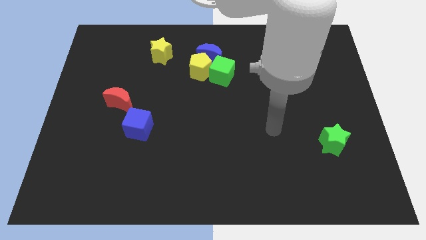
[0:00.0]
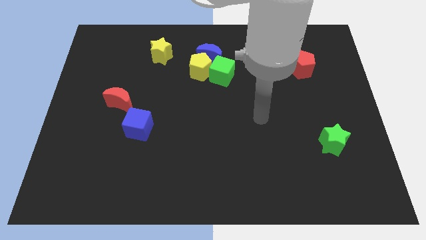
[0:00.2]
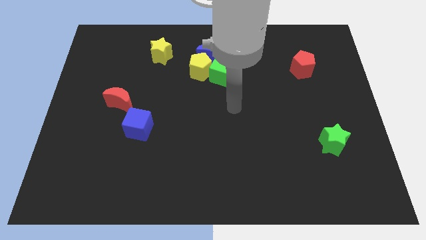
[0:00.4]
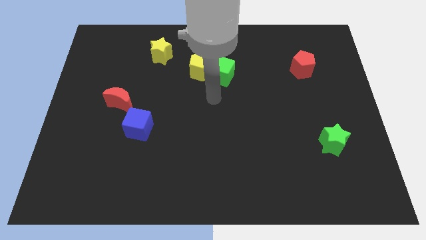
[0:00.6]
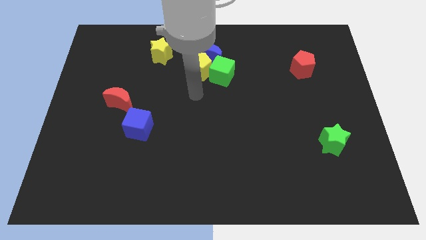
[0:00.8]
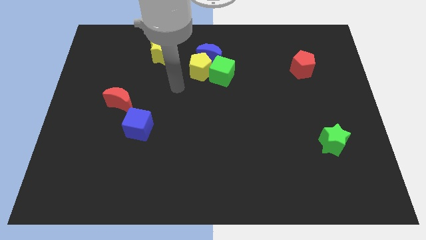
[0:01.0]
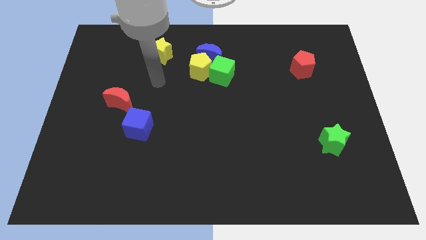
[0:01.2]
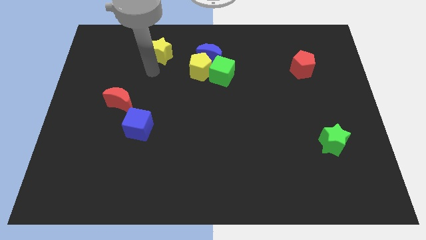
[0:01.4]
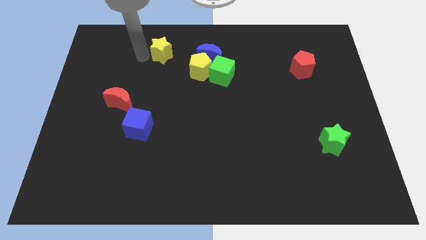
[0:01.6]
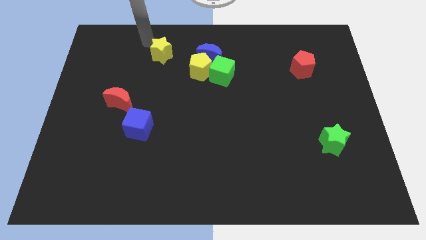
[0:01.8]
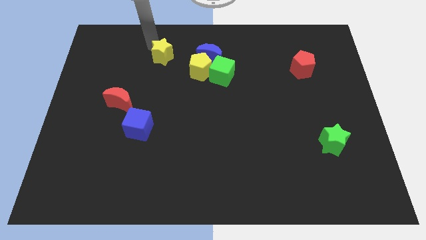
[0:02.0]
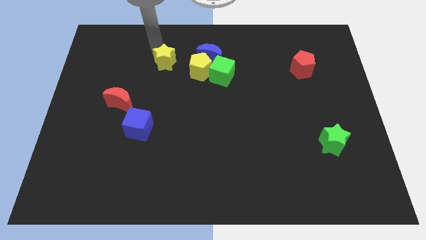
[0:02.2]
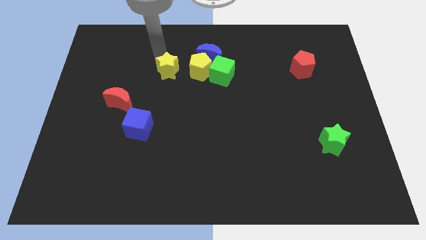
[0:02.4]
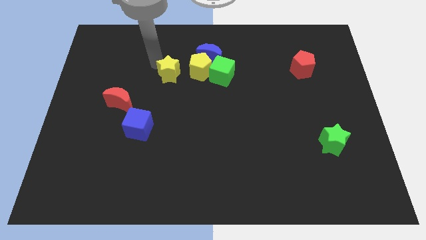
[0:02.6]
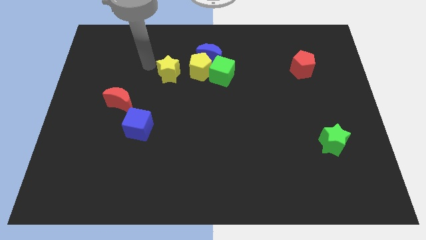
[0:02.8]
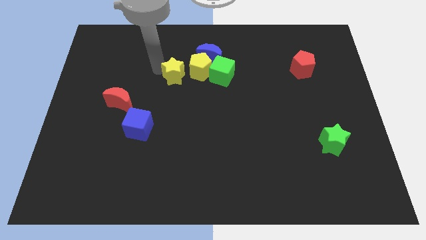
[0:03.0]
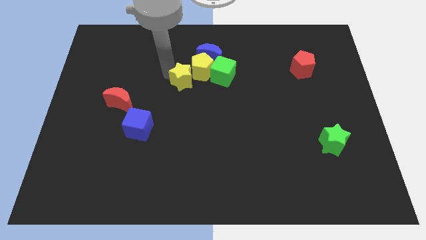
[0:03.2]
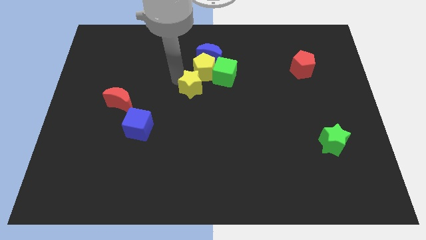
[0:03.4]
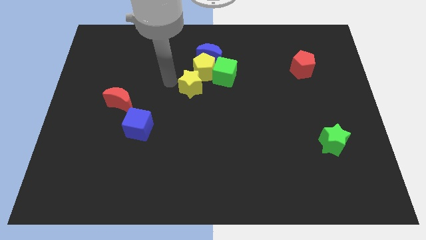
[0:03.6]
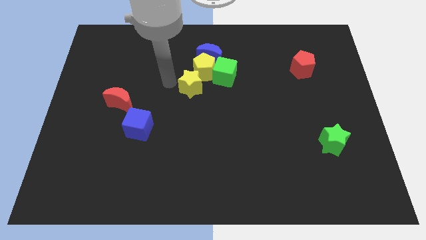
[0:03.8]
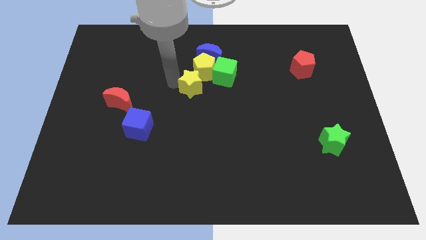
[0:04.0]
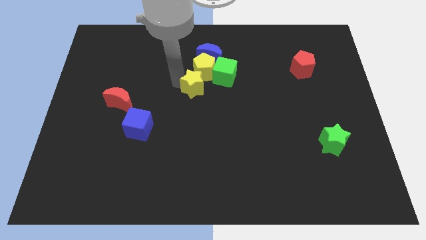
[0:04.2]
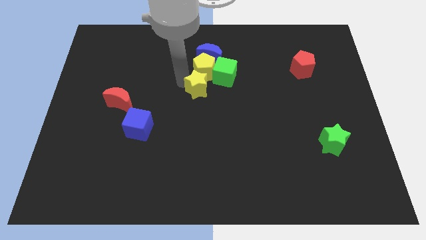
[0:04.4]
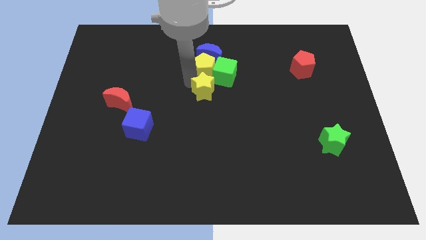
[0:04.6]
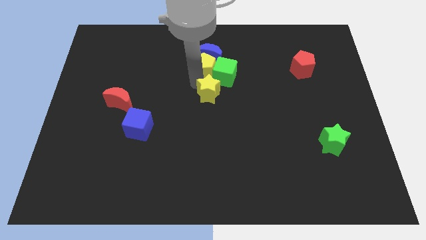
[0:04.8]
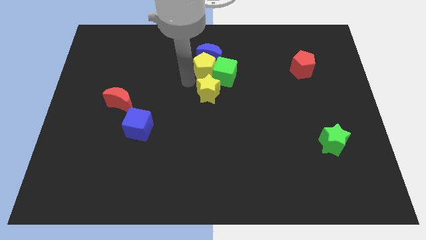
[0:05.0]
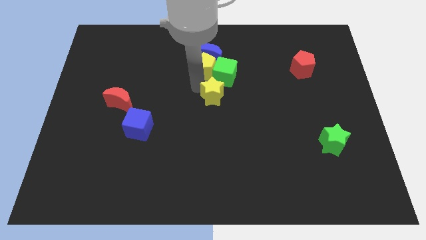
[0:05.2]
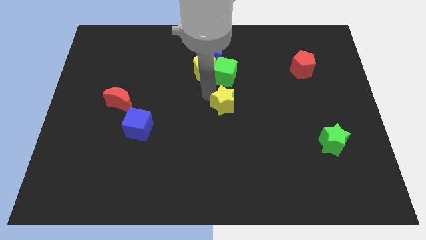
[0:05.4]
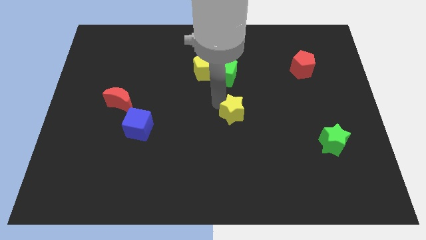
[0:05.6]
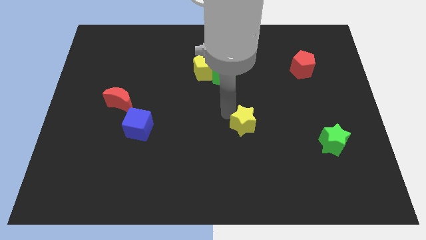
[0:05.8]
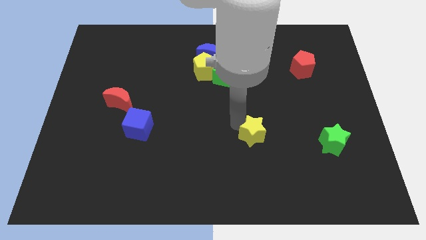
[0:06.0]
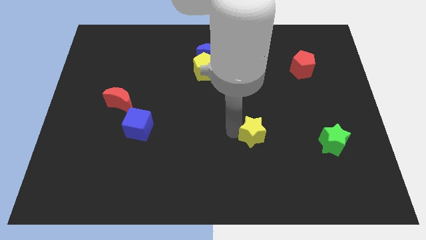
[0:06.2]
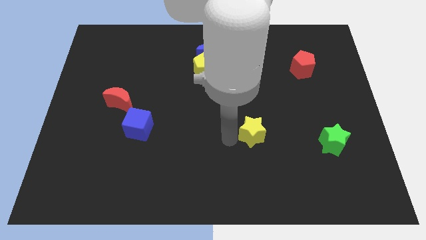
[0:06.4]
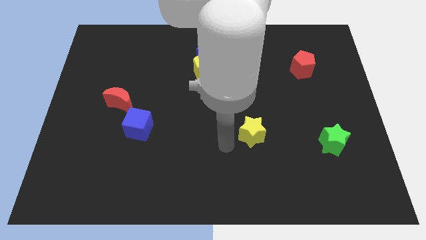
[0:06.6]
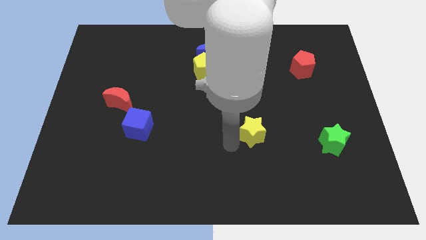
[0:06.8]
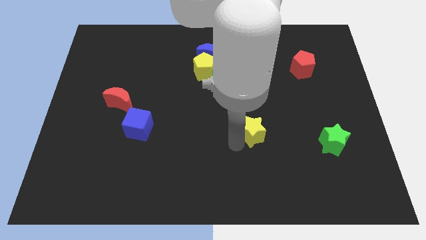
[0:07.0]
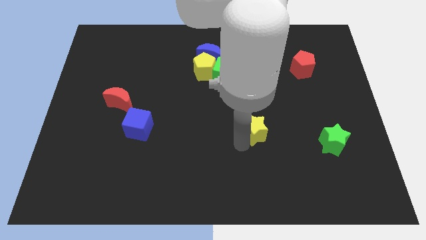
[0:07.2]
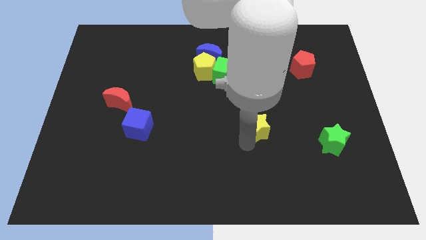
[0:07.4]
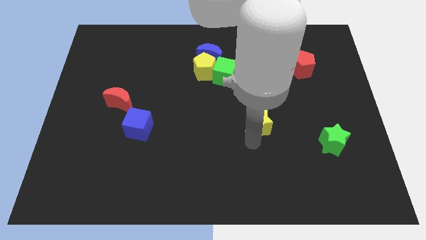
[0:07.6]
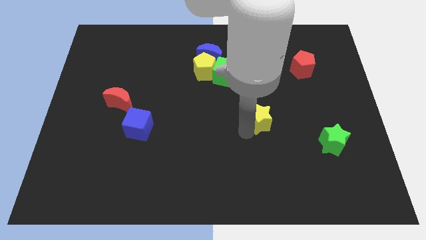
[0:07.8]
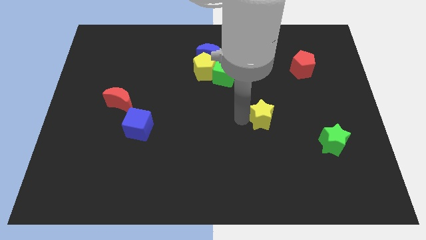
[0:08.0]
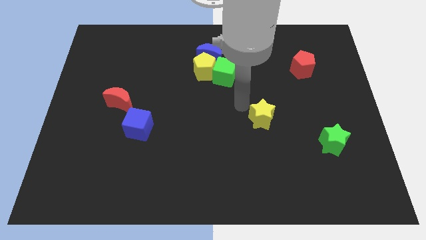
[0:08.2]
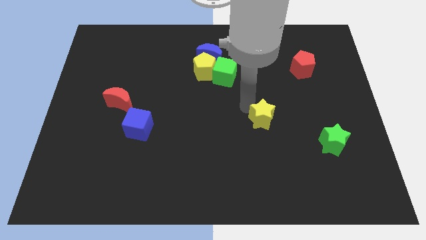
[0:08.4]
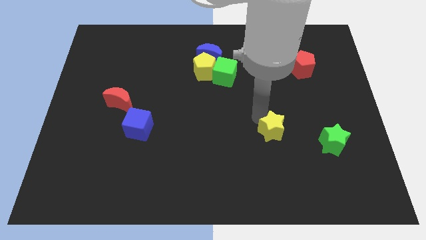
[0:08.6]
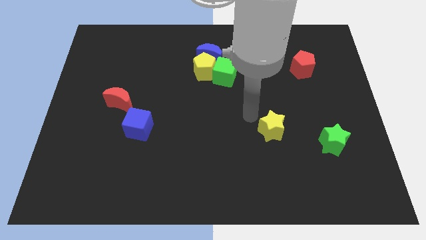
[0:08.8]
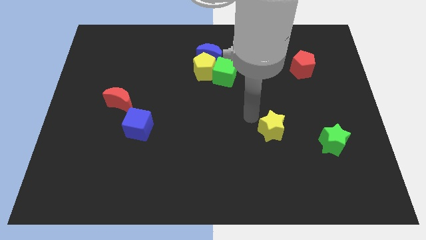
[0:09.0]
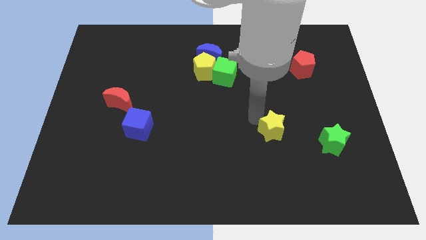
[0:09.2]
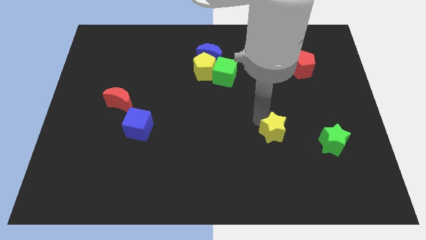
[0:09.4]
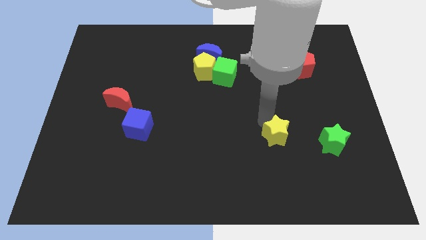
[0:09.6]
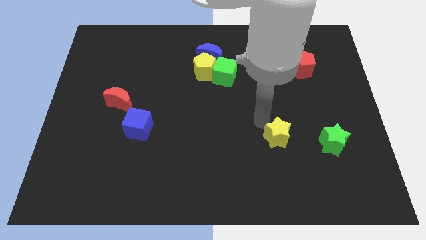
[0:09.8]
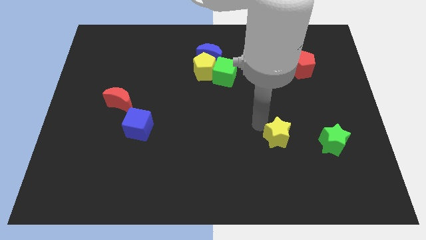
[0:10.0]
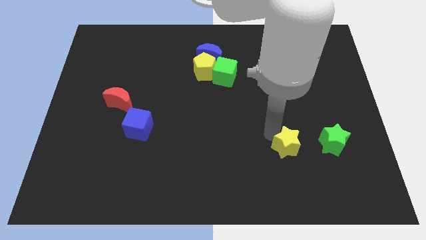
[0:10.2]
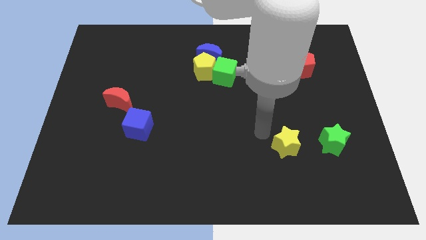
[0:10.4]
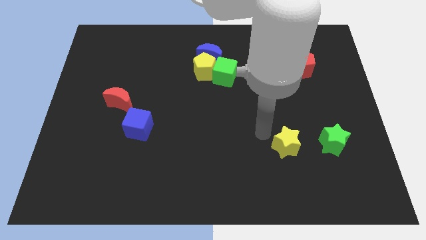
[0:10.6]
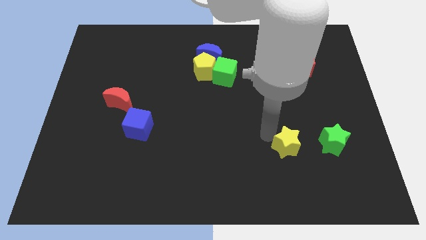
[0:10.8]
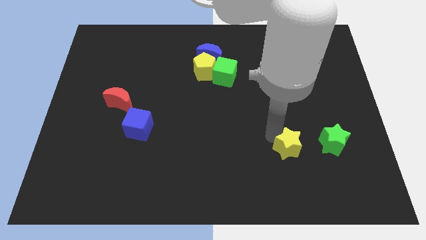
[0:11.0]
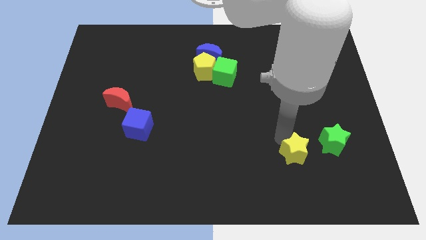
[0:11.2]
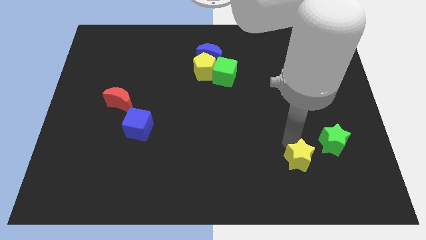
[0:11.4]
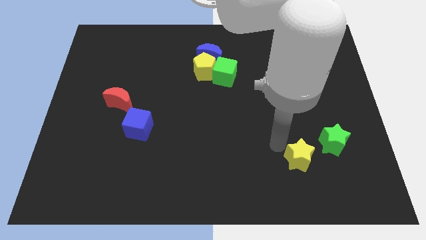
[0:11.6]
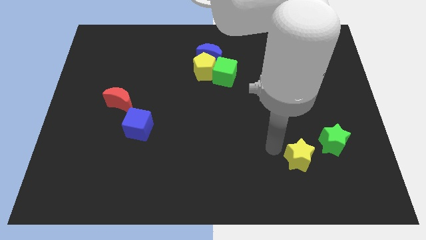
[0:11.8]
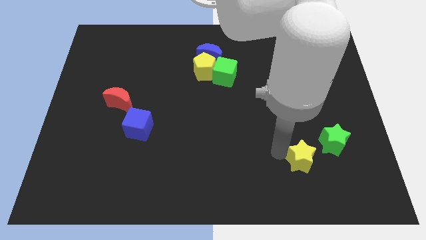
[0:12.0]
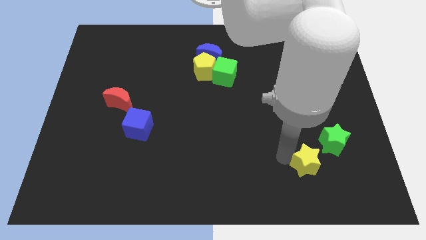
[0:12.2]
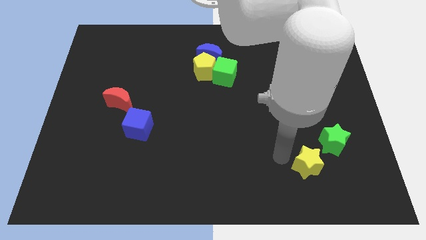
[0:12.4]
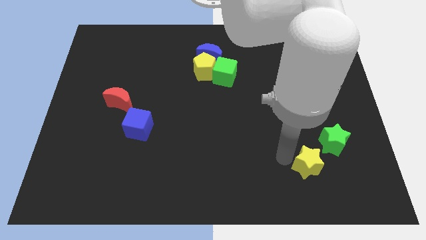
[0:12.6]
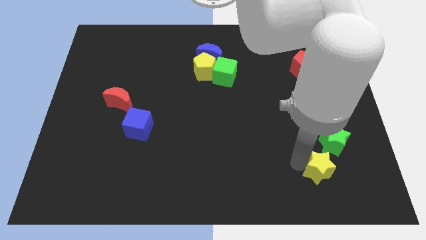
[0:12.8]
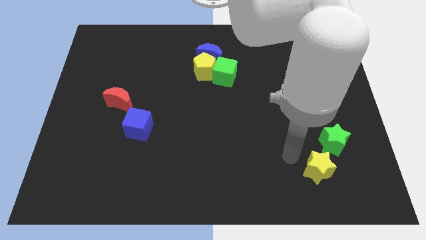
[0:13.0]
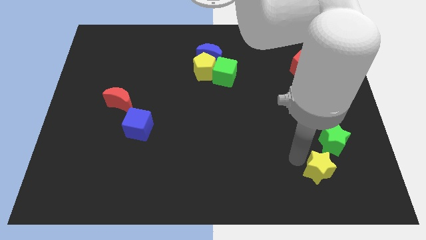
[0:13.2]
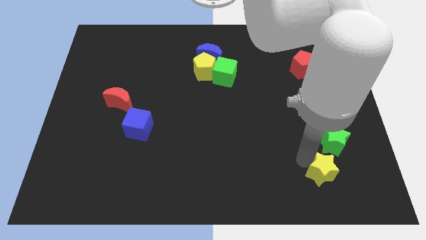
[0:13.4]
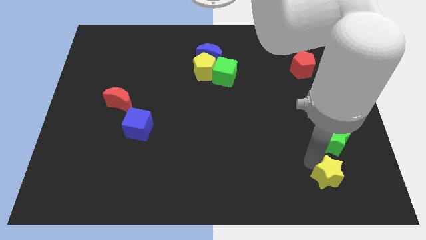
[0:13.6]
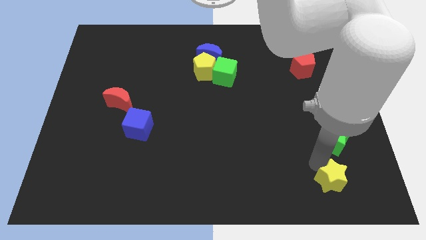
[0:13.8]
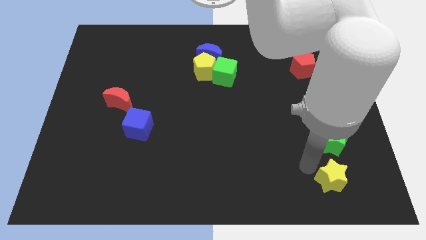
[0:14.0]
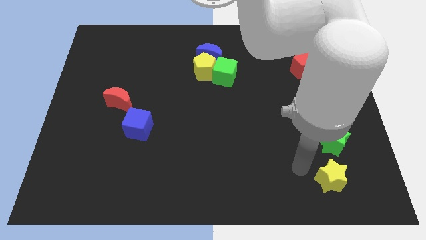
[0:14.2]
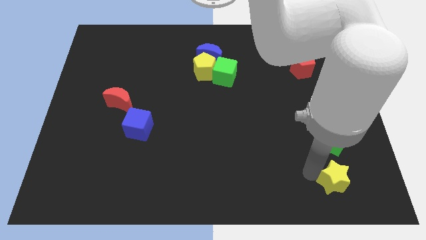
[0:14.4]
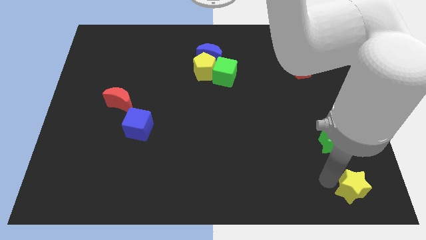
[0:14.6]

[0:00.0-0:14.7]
move the yellow star to the bottom right
